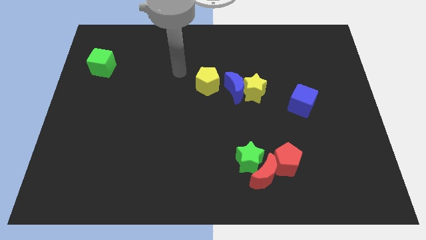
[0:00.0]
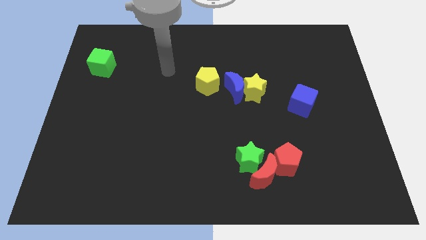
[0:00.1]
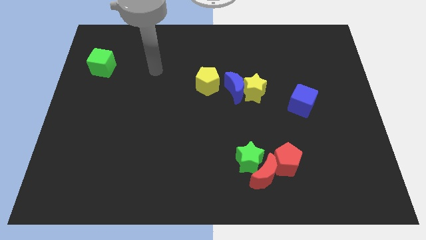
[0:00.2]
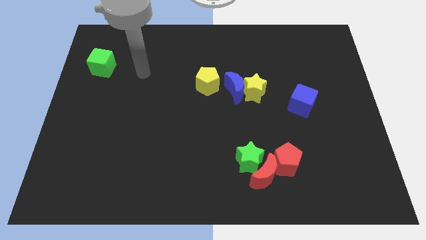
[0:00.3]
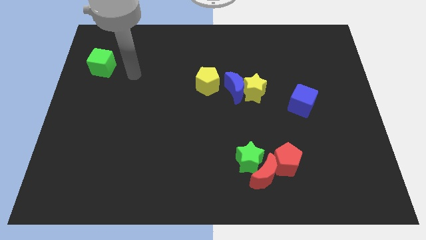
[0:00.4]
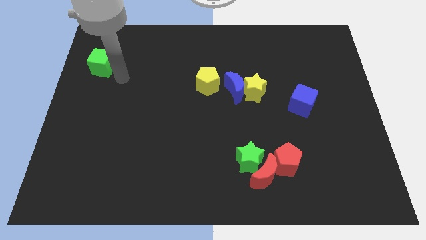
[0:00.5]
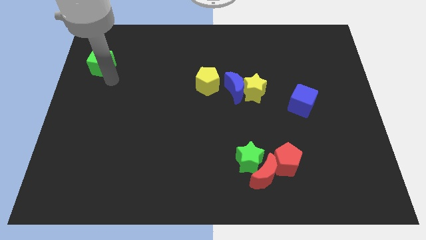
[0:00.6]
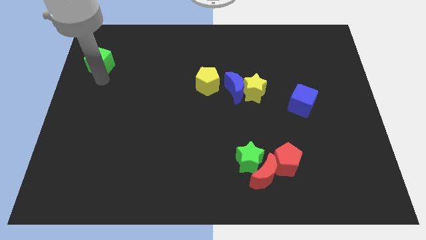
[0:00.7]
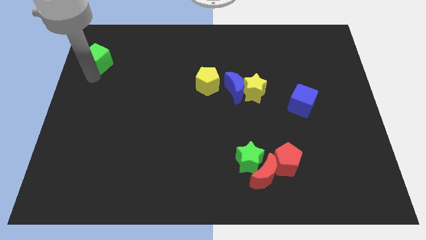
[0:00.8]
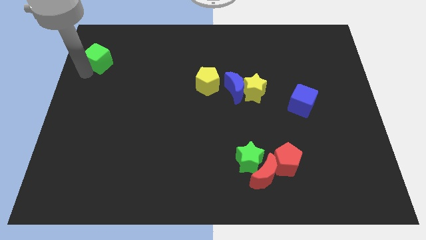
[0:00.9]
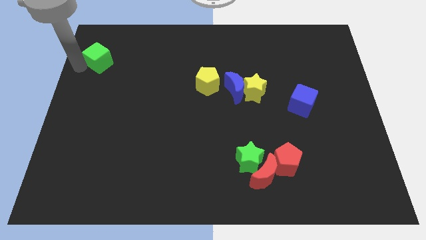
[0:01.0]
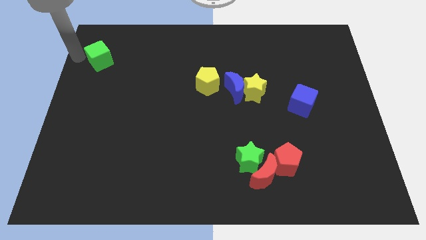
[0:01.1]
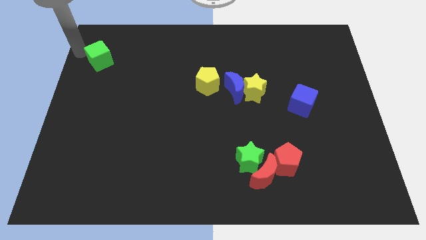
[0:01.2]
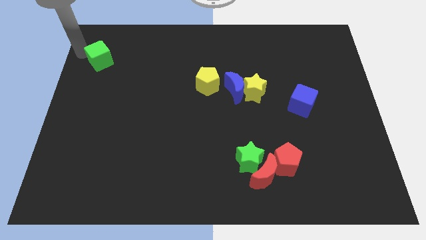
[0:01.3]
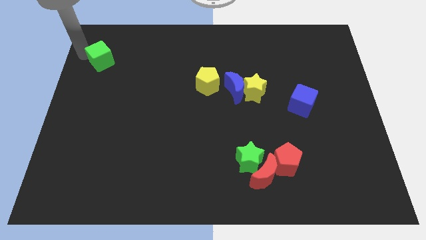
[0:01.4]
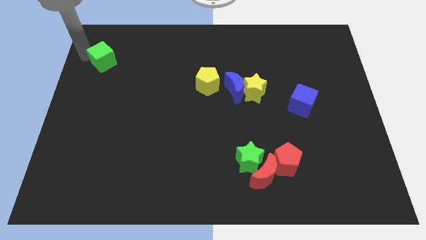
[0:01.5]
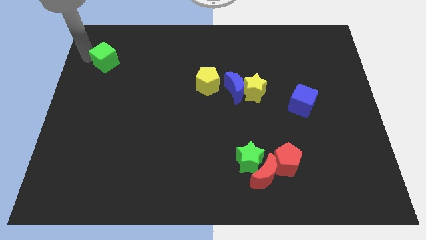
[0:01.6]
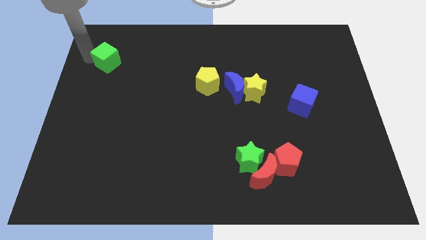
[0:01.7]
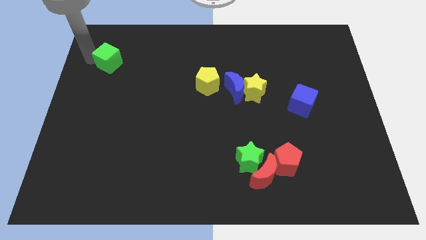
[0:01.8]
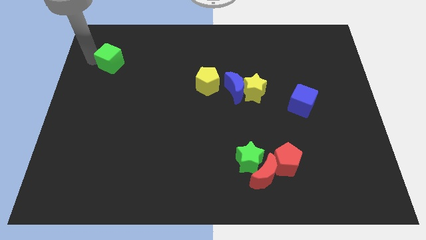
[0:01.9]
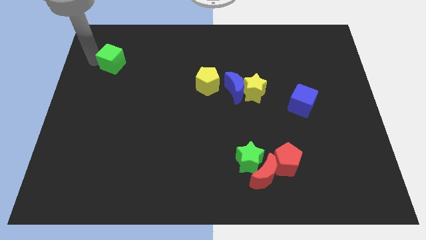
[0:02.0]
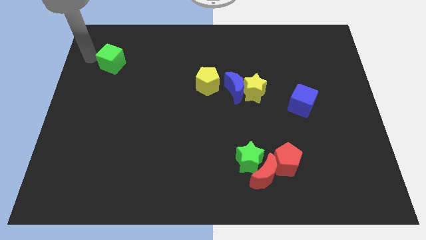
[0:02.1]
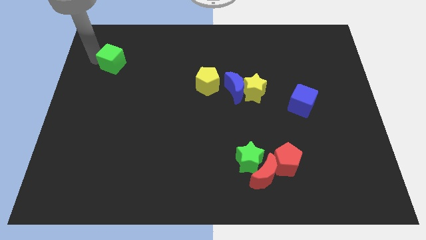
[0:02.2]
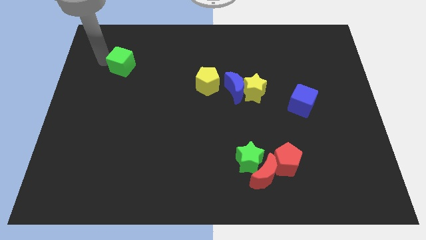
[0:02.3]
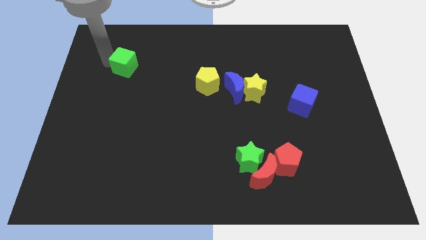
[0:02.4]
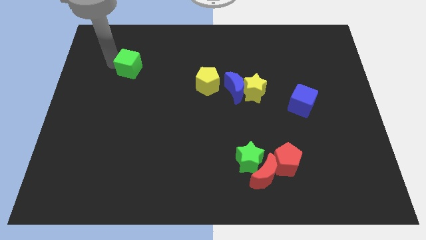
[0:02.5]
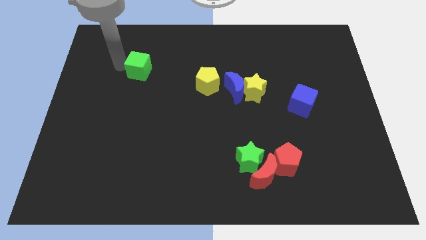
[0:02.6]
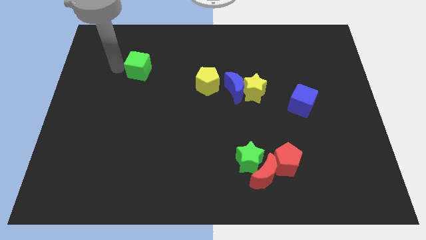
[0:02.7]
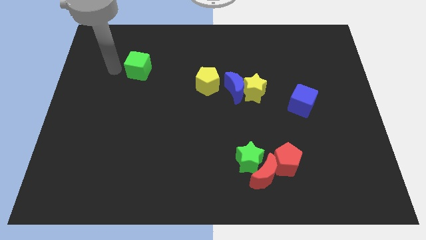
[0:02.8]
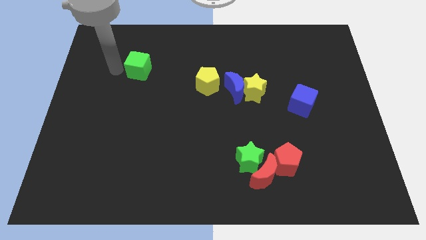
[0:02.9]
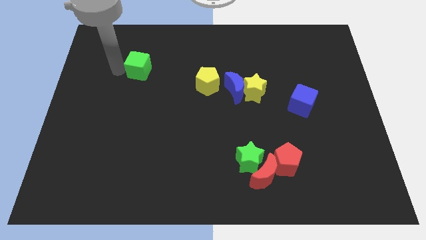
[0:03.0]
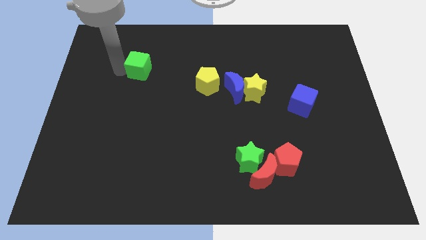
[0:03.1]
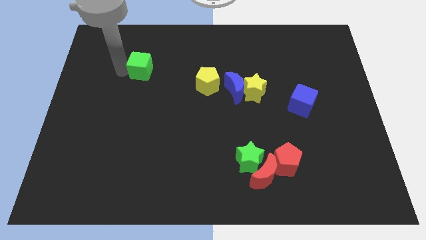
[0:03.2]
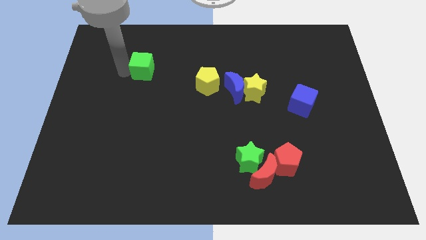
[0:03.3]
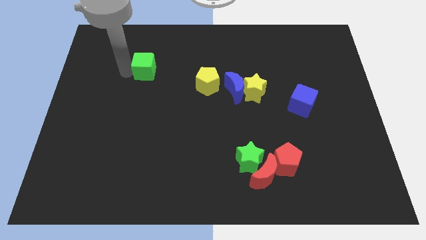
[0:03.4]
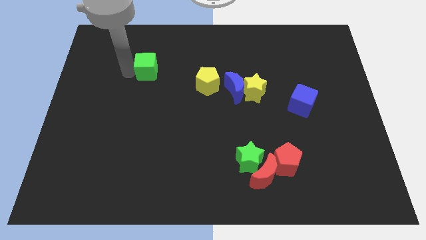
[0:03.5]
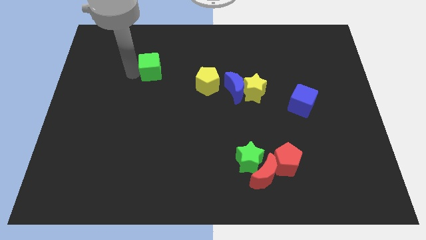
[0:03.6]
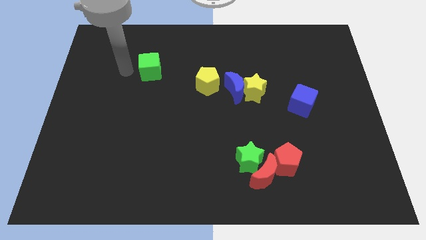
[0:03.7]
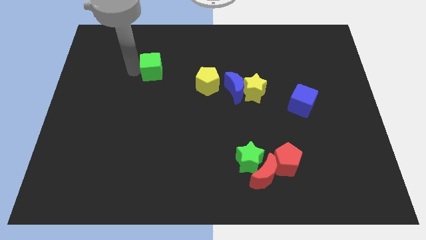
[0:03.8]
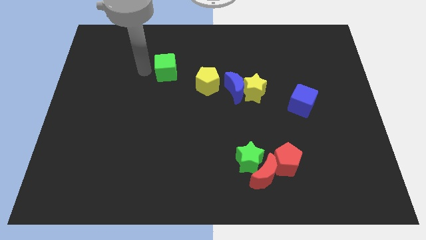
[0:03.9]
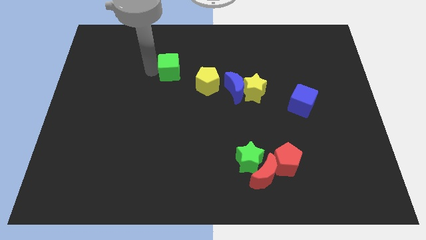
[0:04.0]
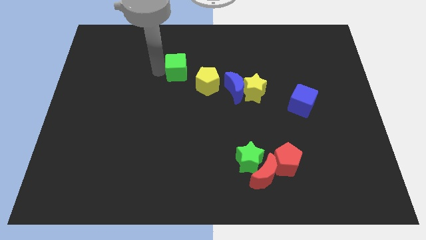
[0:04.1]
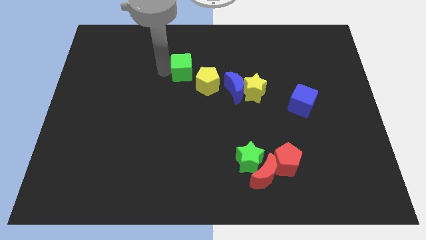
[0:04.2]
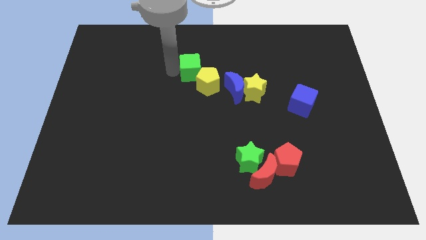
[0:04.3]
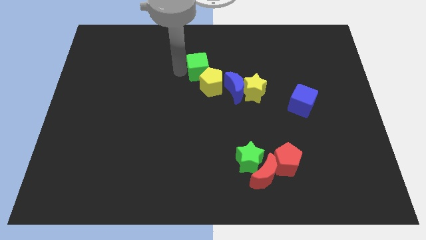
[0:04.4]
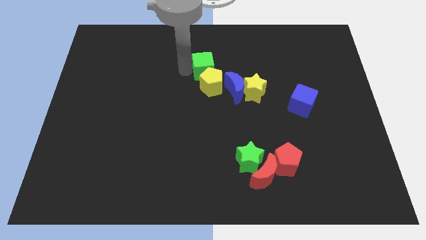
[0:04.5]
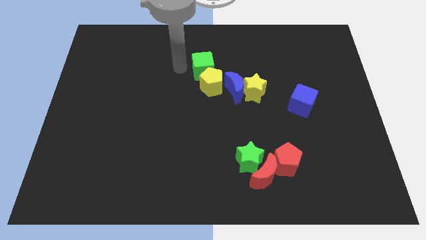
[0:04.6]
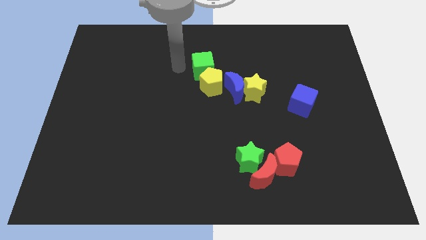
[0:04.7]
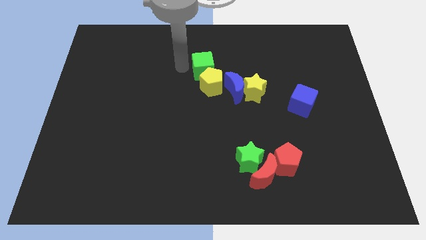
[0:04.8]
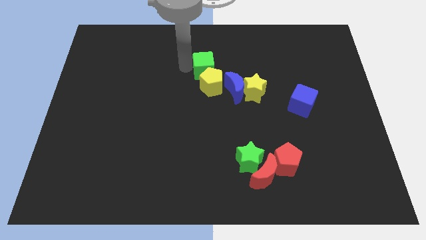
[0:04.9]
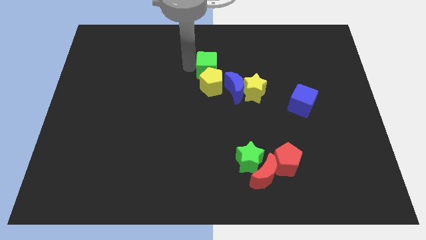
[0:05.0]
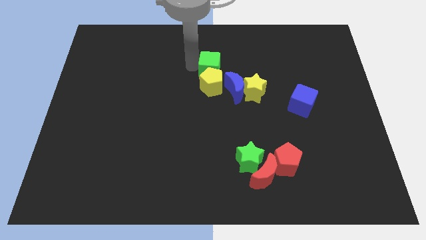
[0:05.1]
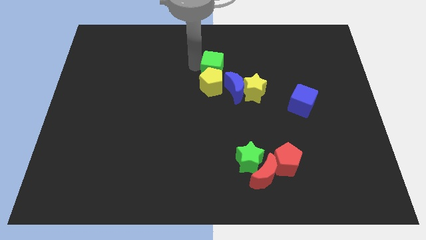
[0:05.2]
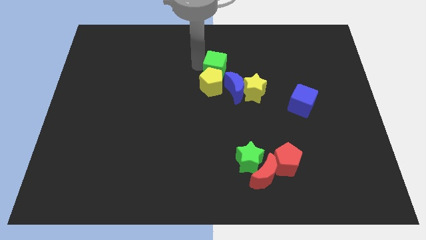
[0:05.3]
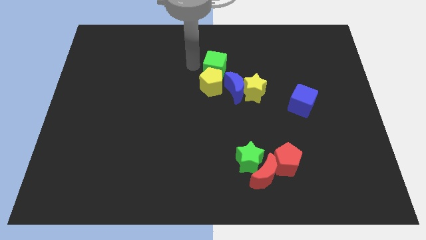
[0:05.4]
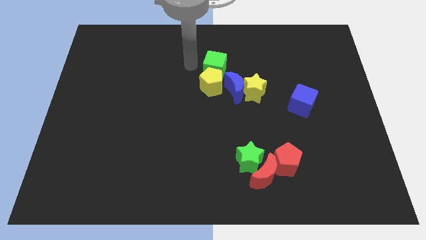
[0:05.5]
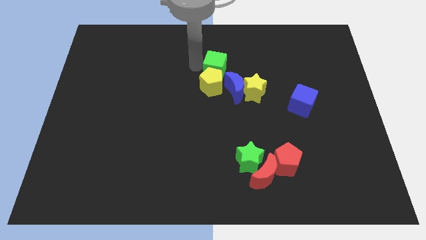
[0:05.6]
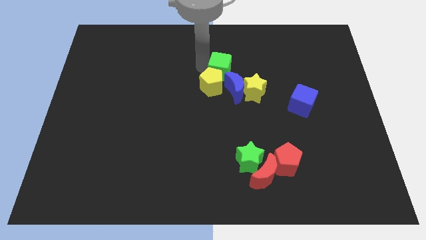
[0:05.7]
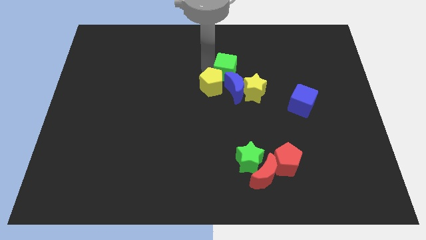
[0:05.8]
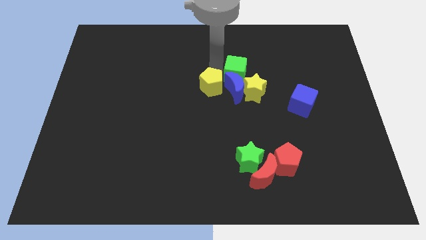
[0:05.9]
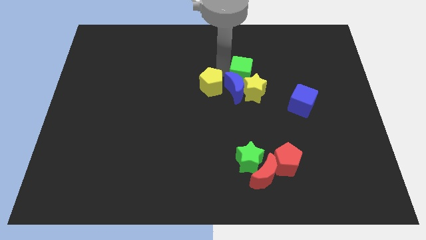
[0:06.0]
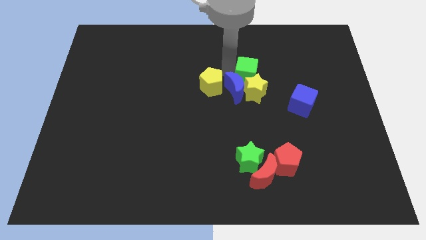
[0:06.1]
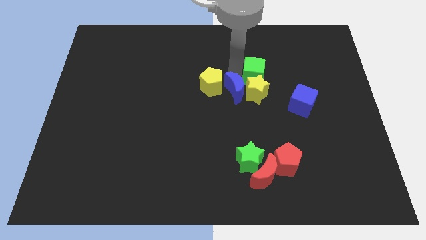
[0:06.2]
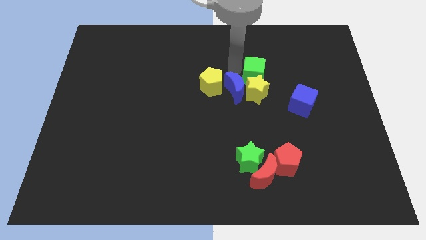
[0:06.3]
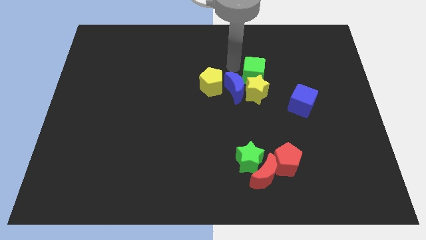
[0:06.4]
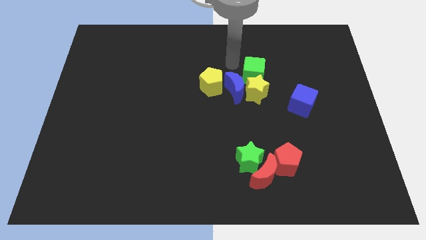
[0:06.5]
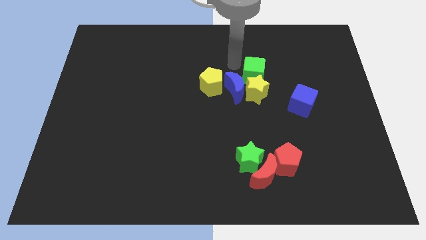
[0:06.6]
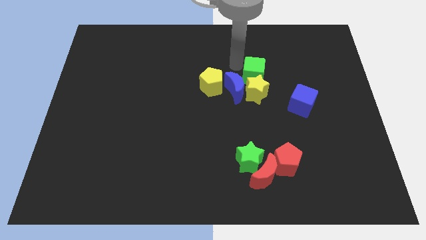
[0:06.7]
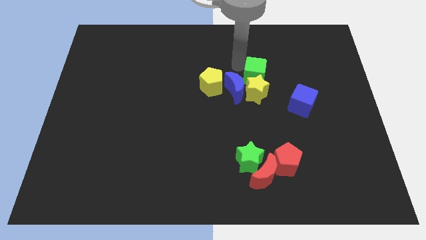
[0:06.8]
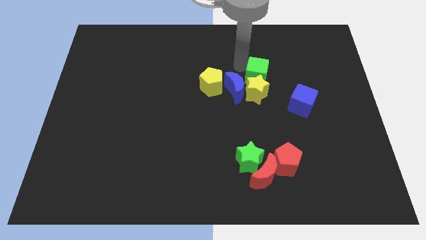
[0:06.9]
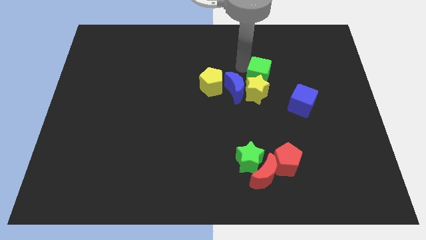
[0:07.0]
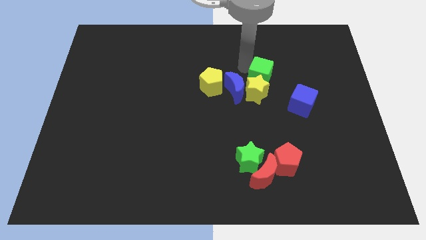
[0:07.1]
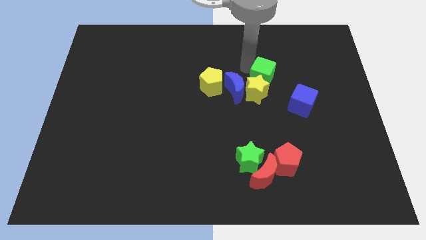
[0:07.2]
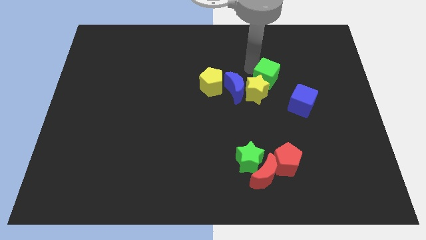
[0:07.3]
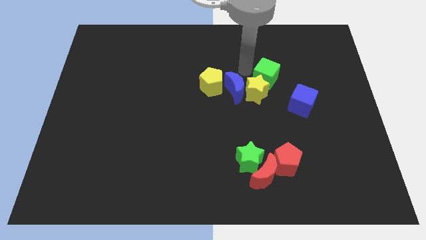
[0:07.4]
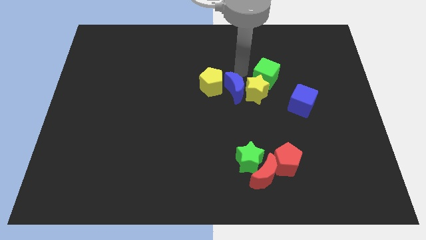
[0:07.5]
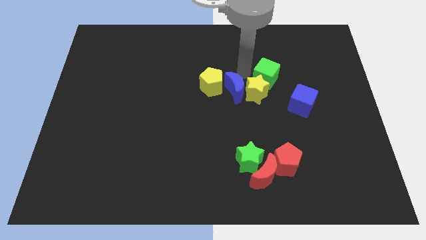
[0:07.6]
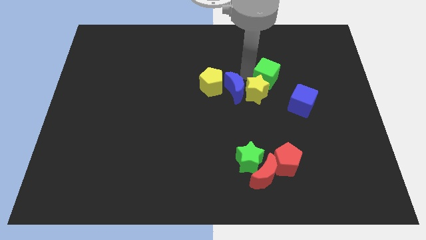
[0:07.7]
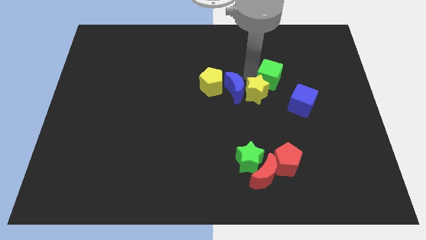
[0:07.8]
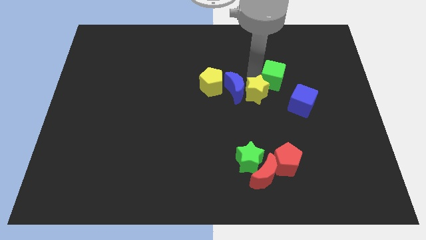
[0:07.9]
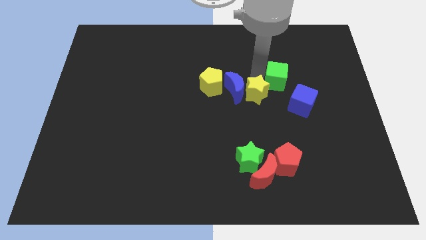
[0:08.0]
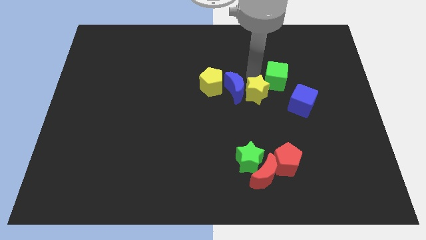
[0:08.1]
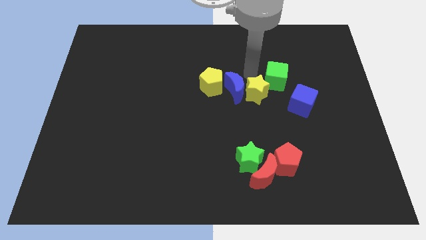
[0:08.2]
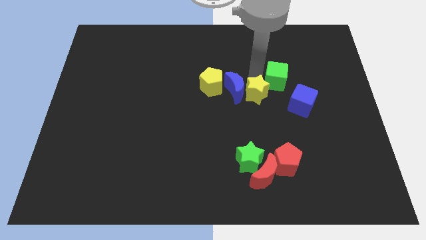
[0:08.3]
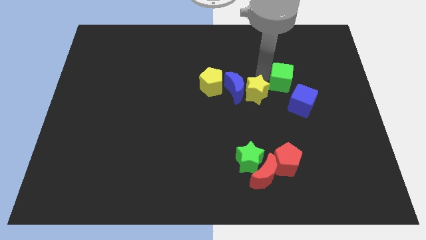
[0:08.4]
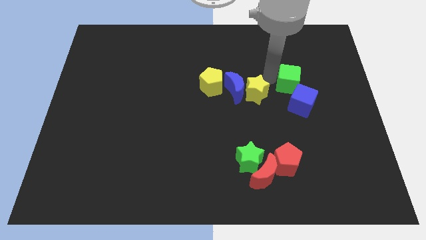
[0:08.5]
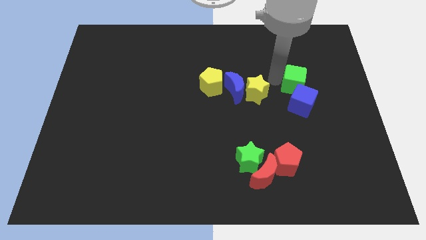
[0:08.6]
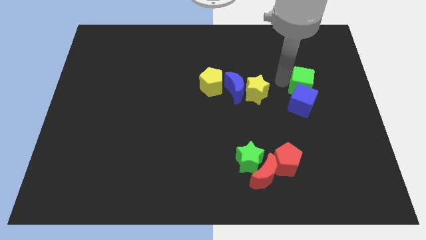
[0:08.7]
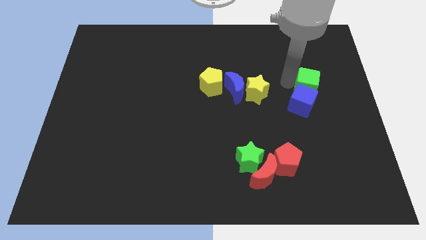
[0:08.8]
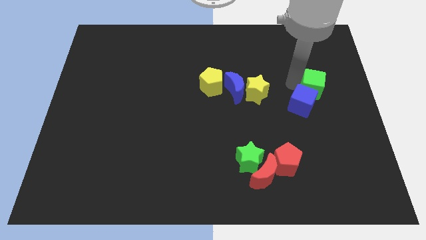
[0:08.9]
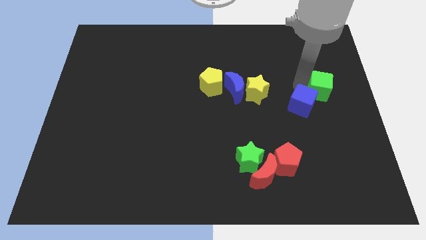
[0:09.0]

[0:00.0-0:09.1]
slide the green cube to the right side of the board
